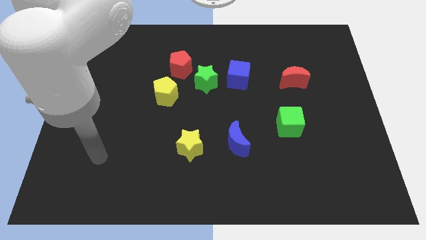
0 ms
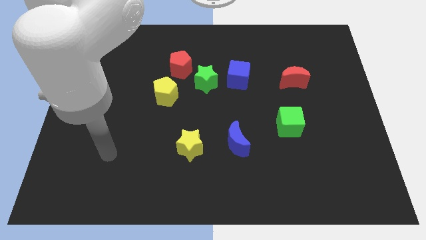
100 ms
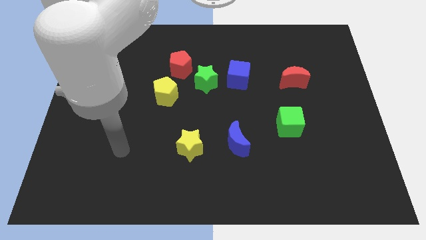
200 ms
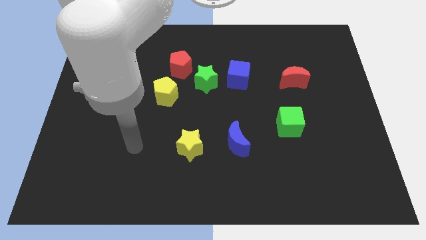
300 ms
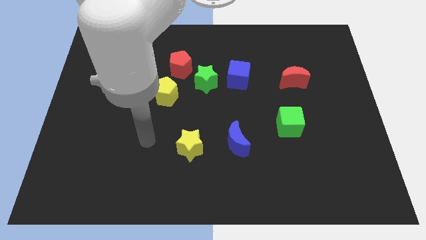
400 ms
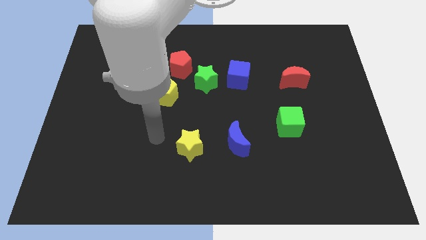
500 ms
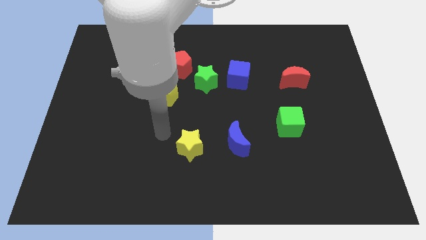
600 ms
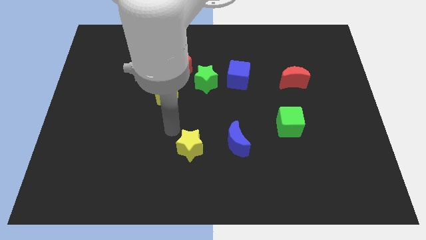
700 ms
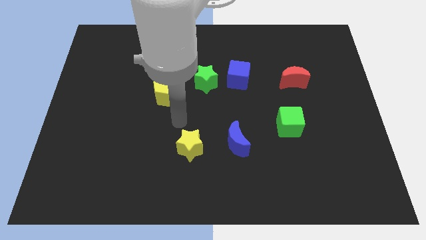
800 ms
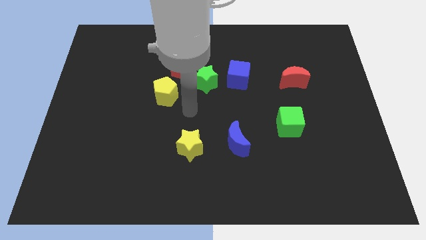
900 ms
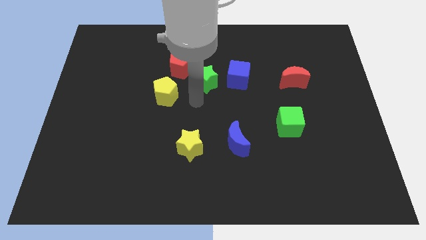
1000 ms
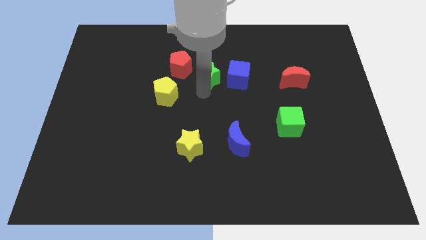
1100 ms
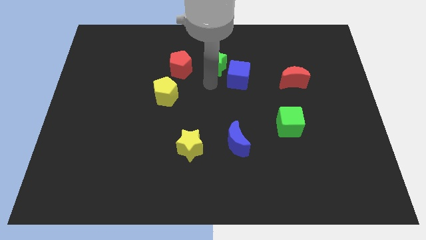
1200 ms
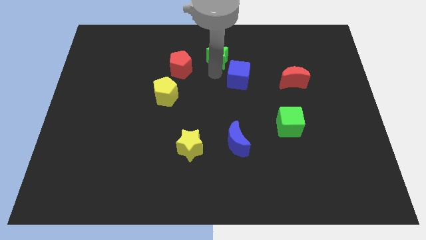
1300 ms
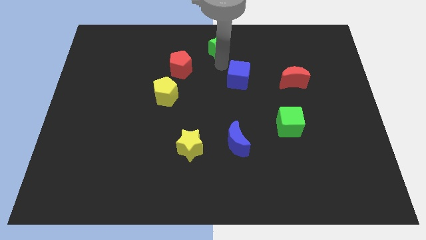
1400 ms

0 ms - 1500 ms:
pull the blue cube apart from the green star

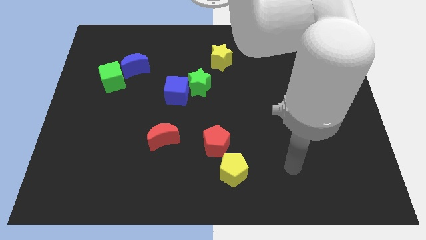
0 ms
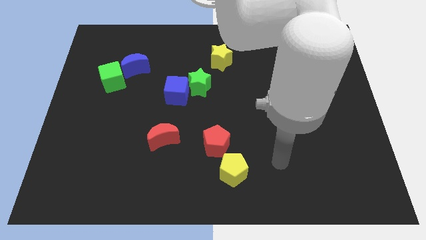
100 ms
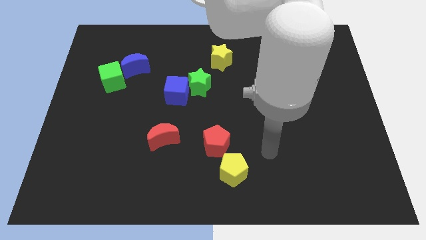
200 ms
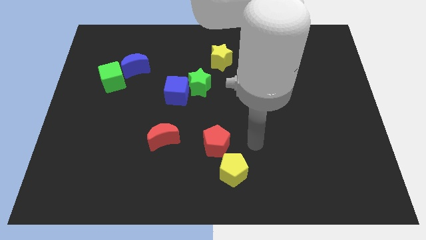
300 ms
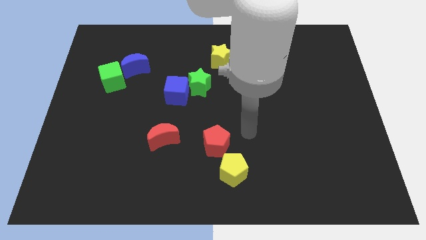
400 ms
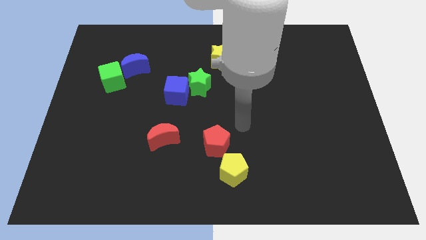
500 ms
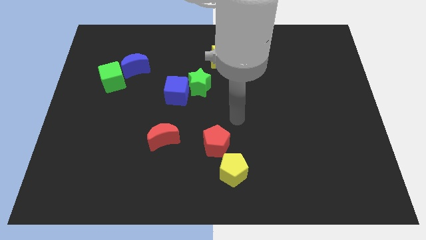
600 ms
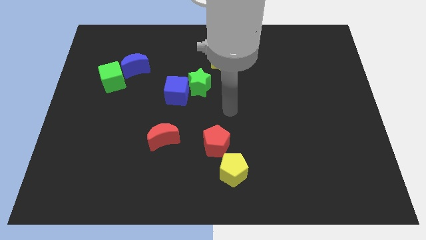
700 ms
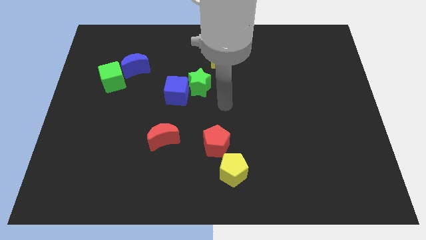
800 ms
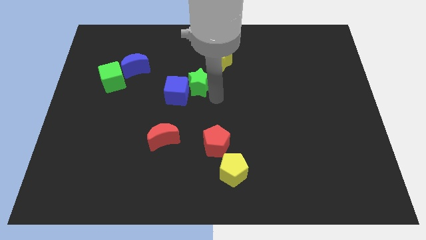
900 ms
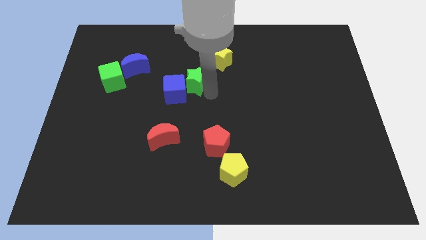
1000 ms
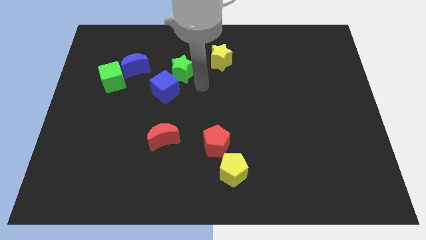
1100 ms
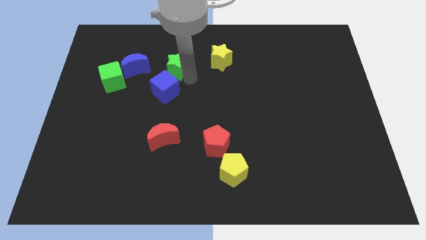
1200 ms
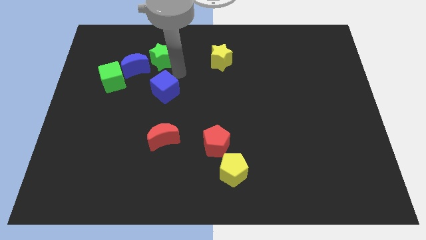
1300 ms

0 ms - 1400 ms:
separate the blue cube from the green star

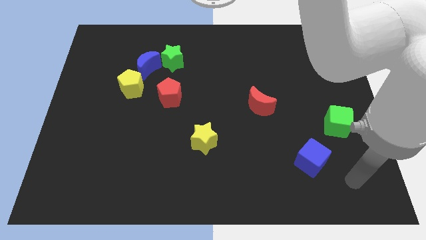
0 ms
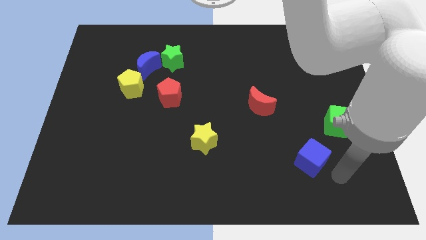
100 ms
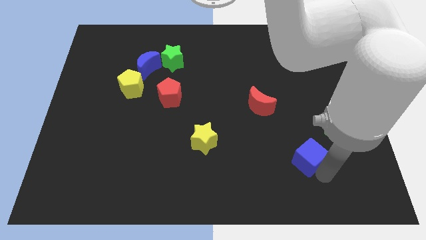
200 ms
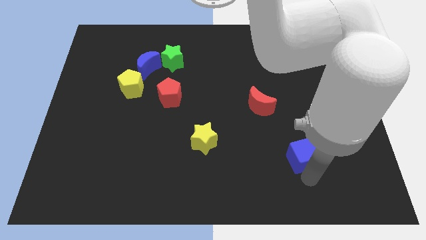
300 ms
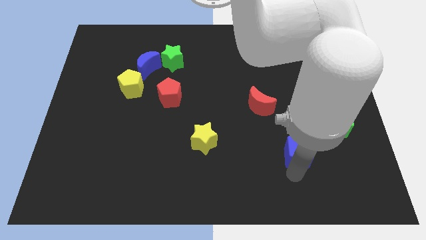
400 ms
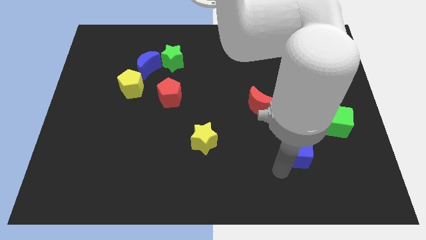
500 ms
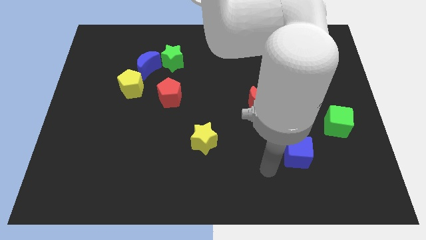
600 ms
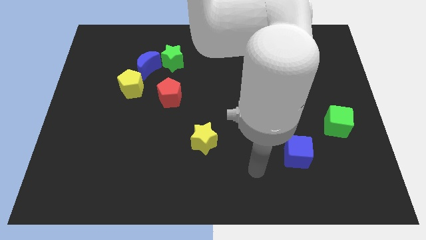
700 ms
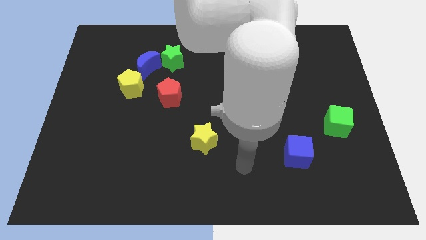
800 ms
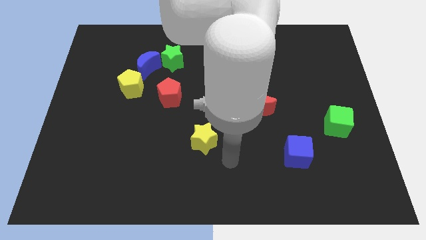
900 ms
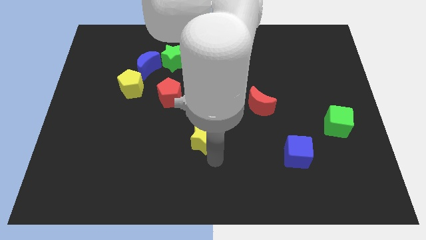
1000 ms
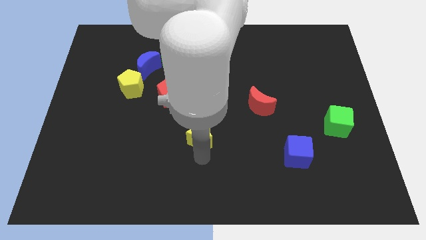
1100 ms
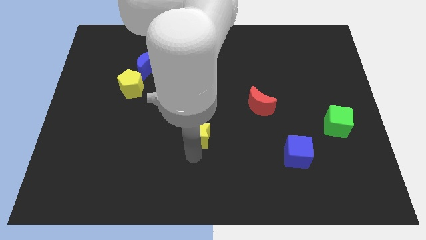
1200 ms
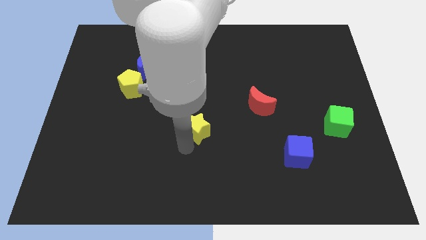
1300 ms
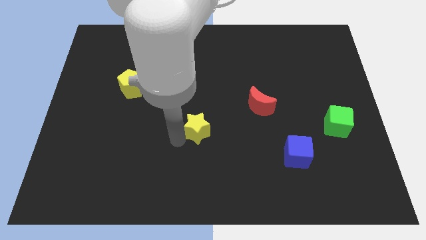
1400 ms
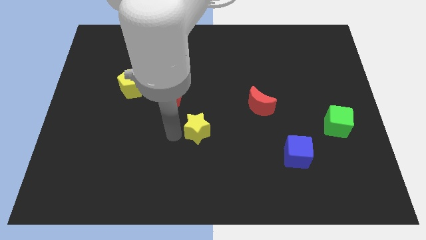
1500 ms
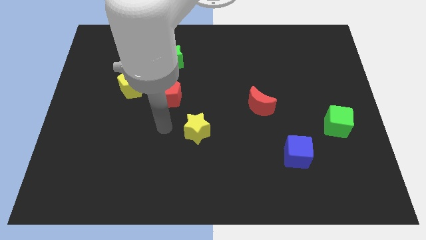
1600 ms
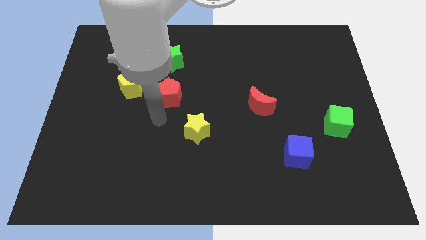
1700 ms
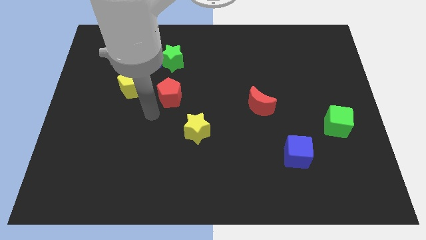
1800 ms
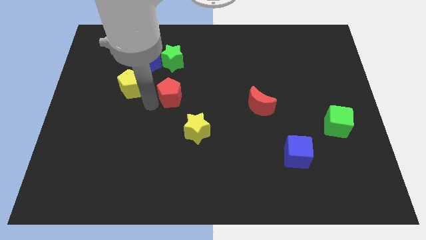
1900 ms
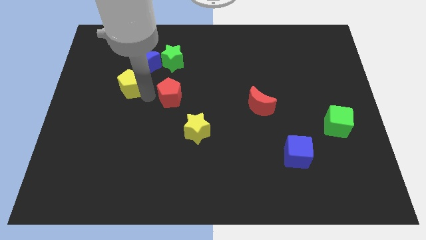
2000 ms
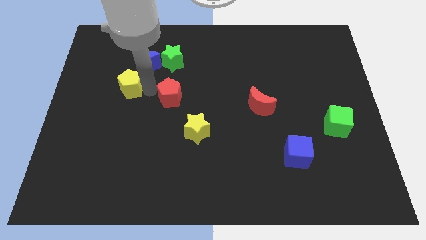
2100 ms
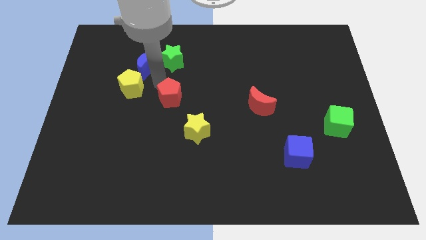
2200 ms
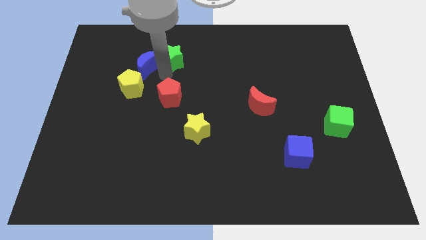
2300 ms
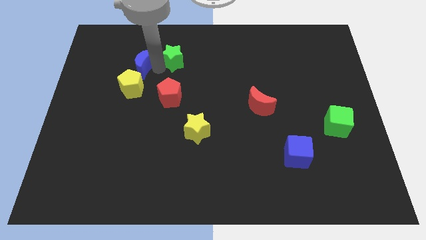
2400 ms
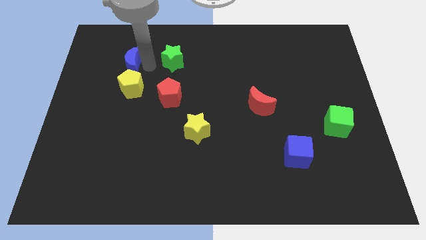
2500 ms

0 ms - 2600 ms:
pull the green star apart from the blue moon

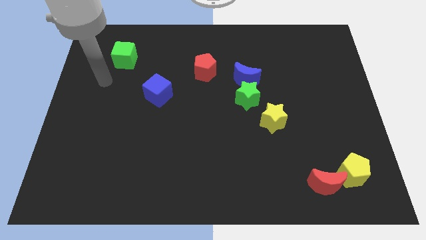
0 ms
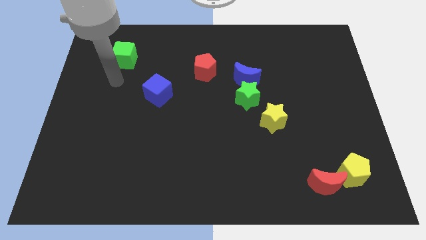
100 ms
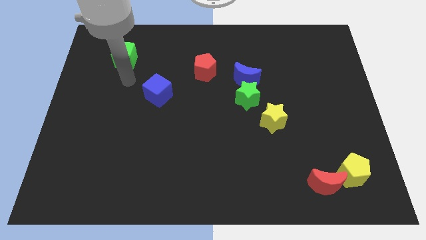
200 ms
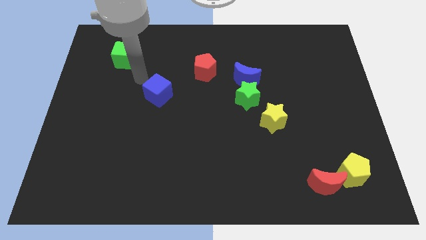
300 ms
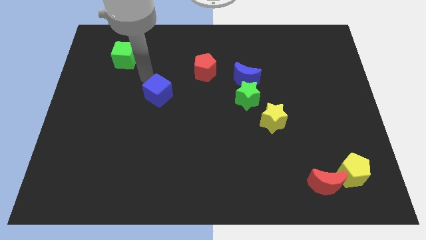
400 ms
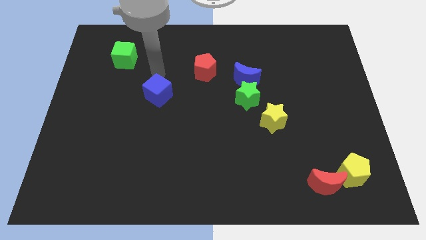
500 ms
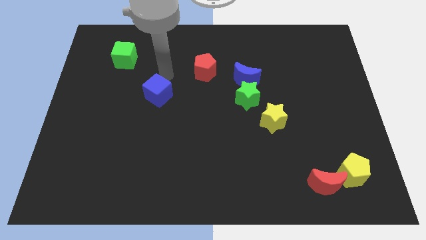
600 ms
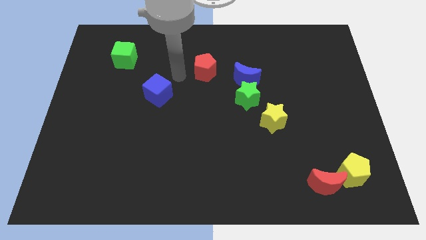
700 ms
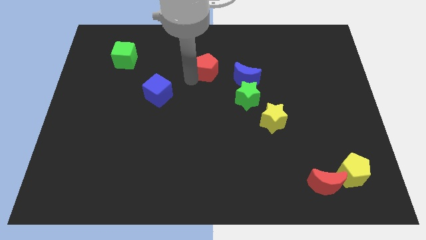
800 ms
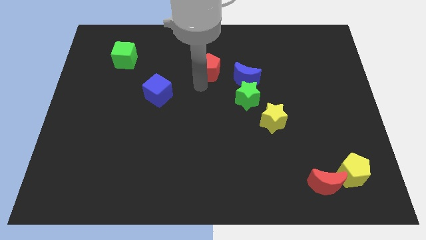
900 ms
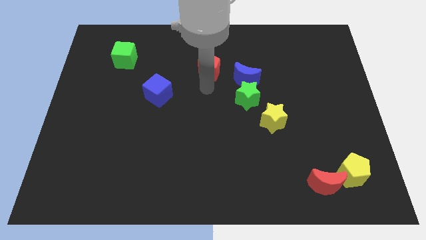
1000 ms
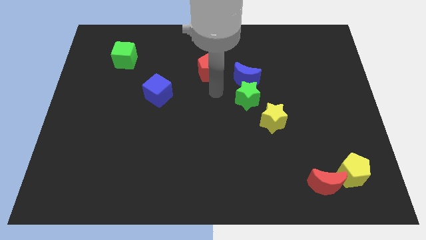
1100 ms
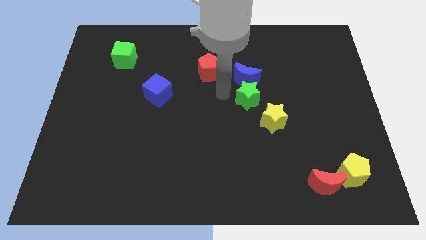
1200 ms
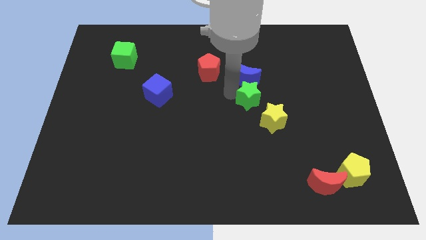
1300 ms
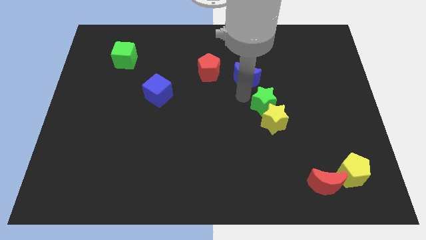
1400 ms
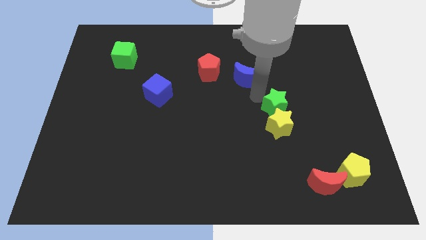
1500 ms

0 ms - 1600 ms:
separate the blue moon from the green star

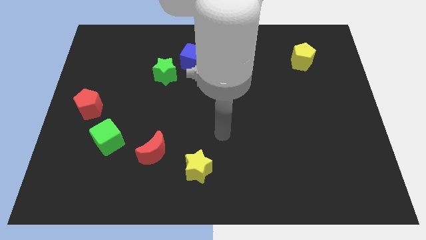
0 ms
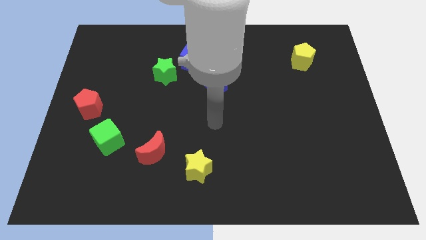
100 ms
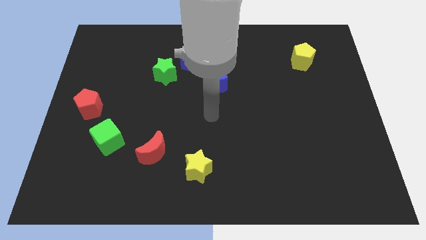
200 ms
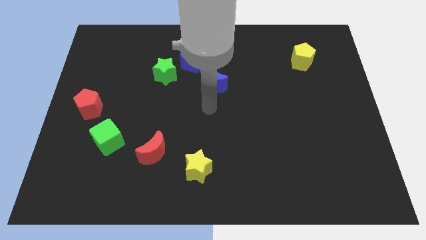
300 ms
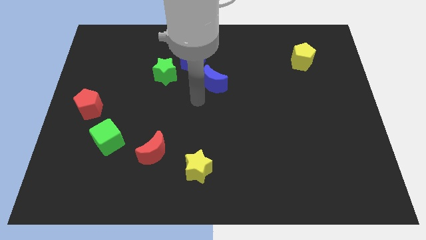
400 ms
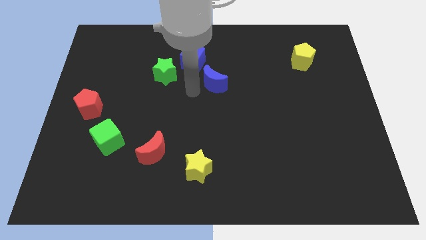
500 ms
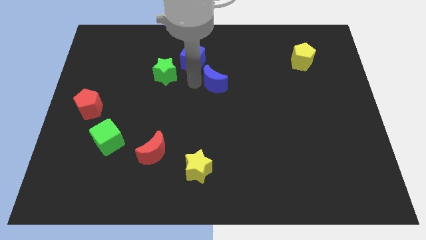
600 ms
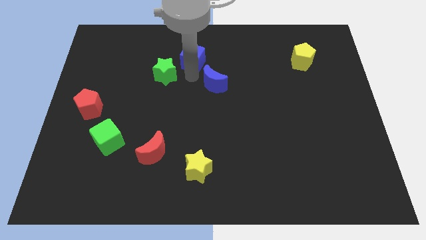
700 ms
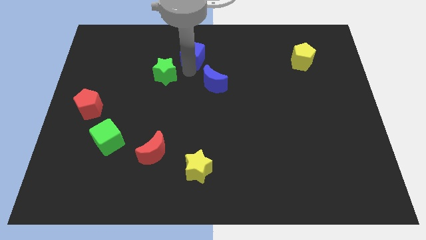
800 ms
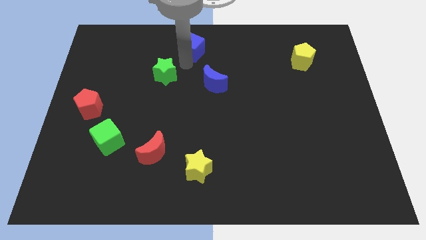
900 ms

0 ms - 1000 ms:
move the green star away from the blue cube

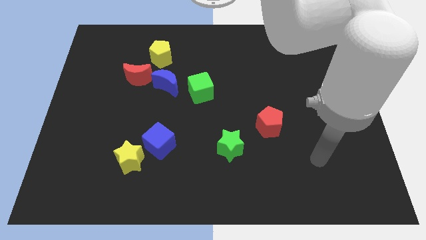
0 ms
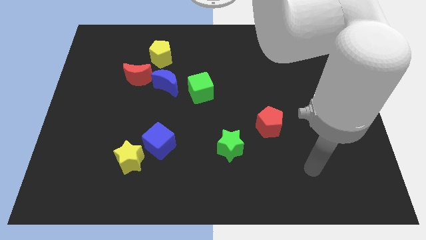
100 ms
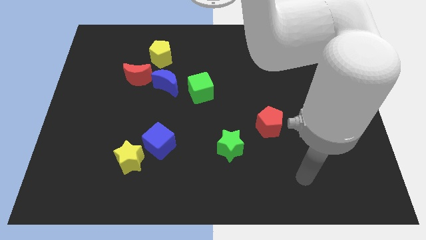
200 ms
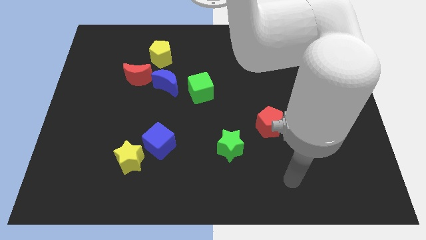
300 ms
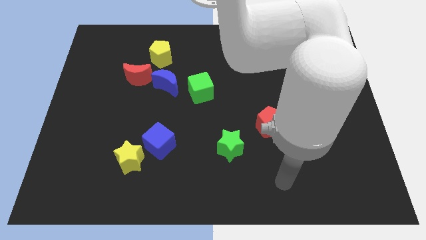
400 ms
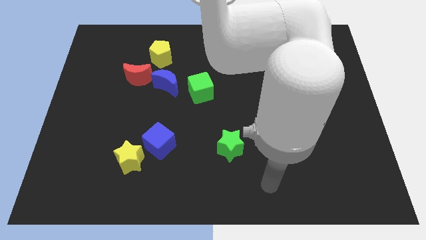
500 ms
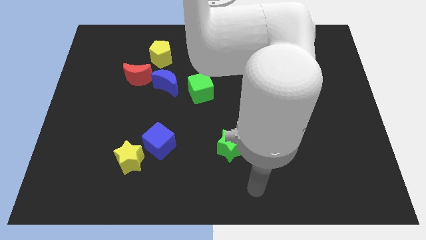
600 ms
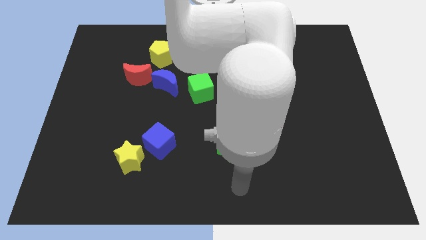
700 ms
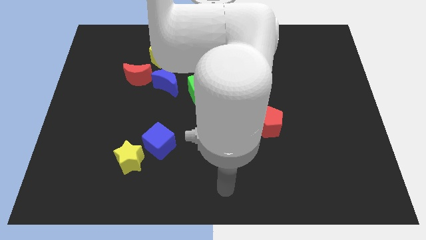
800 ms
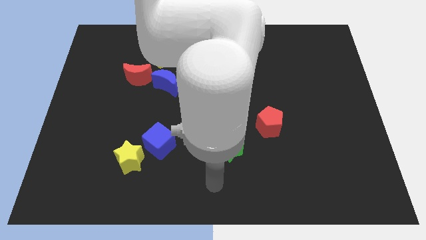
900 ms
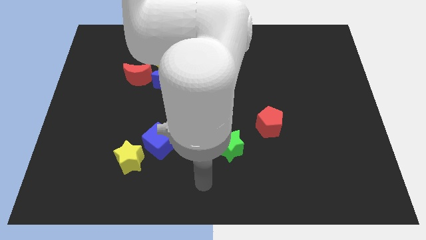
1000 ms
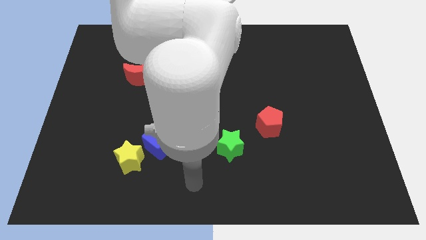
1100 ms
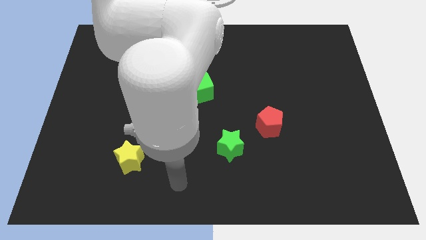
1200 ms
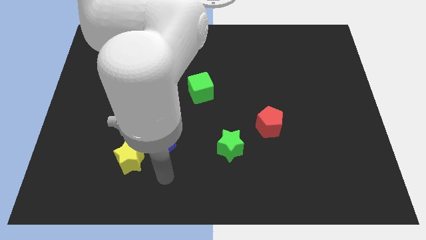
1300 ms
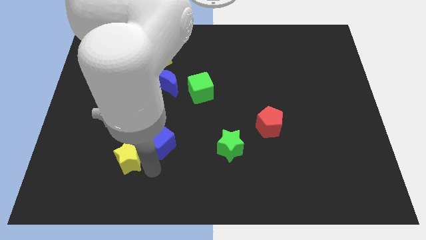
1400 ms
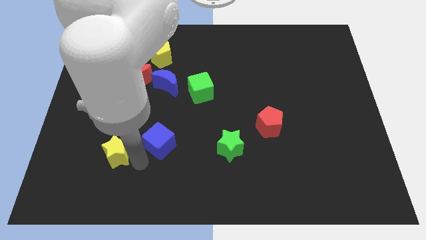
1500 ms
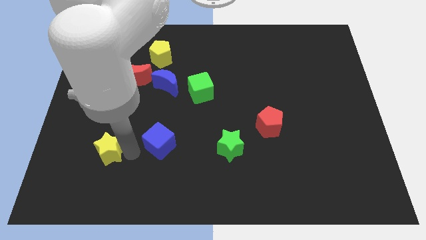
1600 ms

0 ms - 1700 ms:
move the blue cube away from the yellow star
